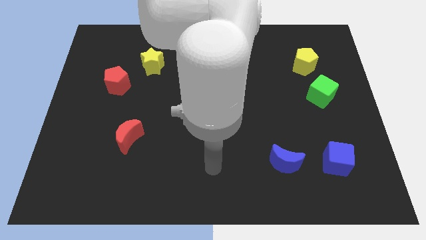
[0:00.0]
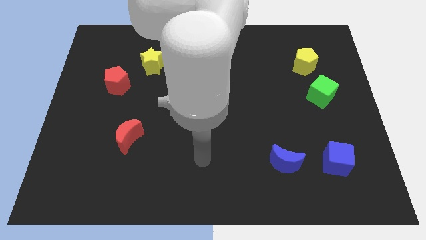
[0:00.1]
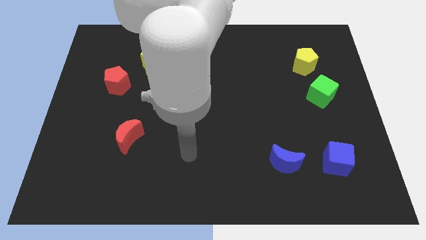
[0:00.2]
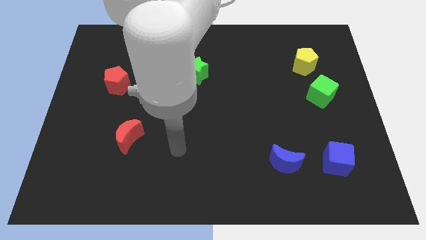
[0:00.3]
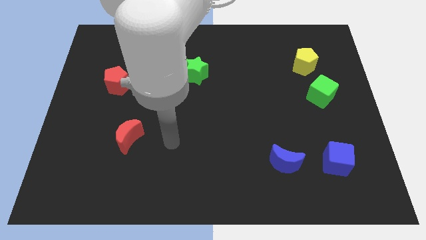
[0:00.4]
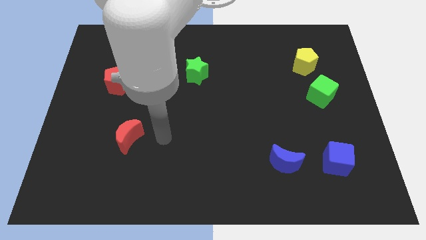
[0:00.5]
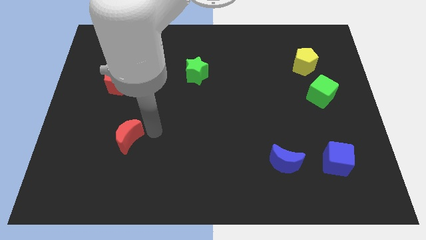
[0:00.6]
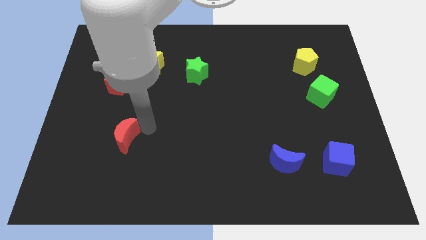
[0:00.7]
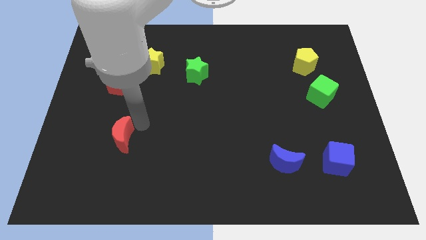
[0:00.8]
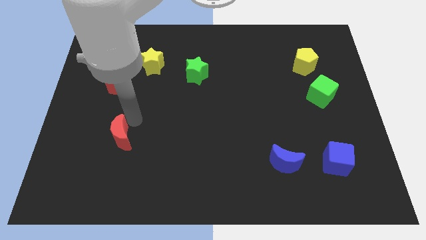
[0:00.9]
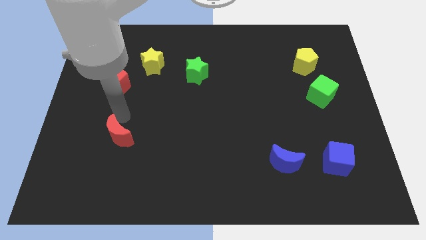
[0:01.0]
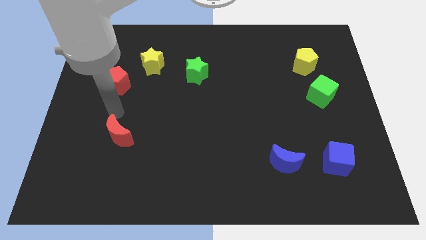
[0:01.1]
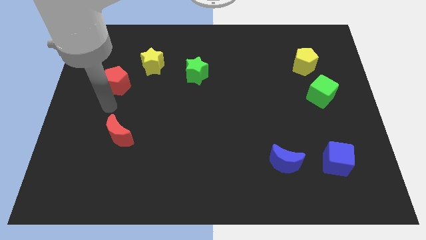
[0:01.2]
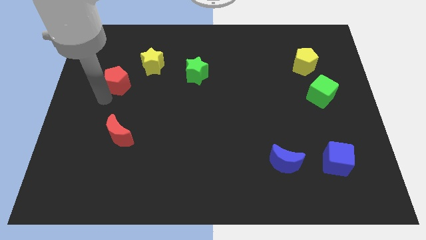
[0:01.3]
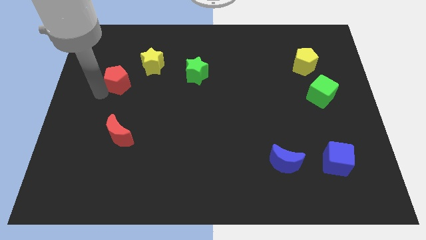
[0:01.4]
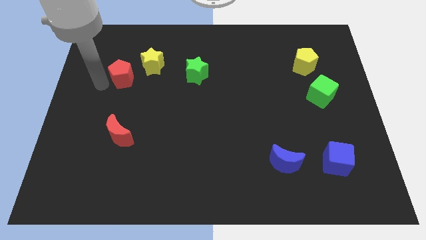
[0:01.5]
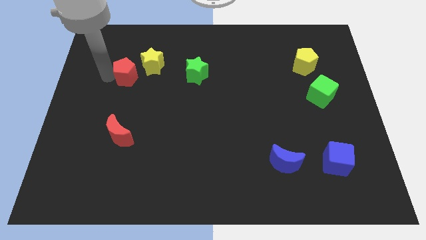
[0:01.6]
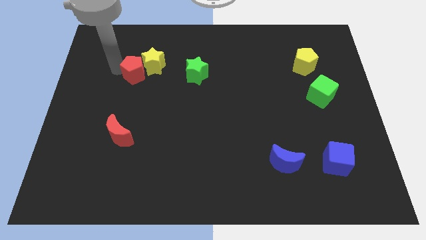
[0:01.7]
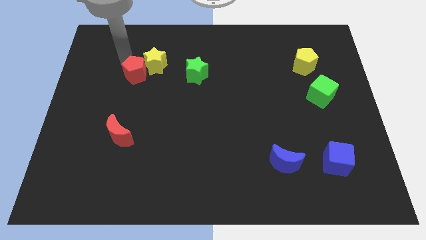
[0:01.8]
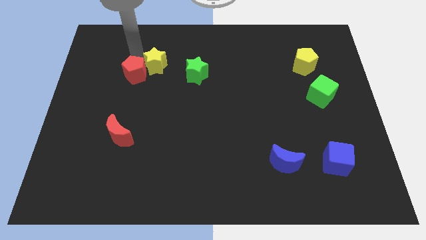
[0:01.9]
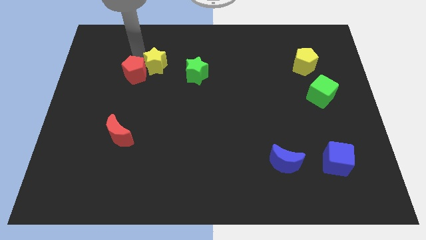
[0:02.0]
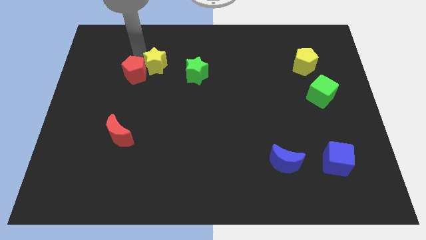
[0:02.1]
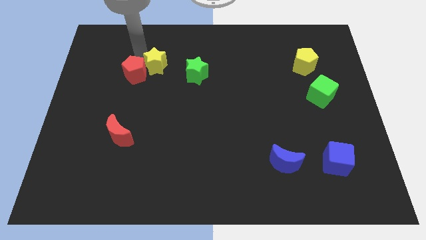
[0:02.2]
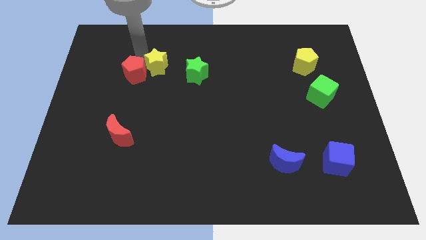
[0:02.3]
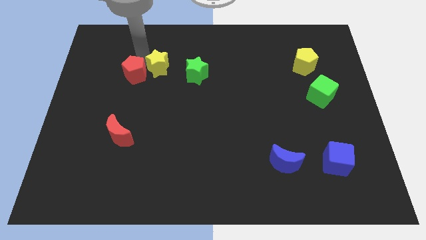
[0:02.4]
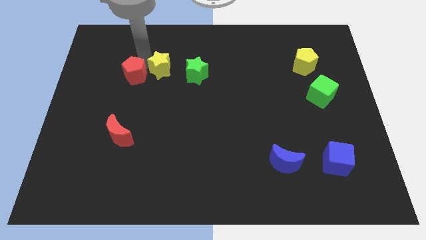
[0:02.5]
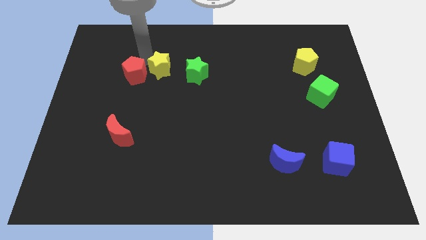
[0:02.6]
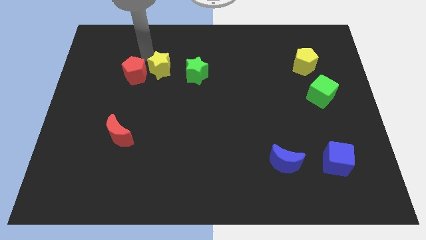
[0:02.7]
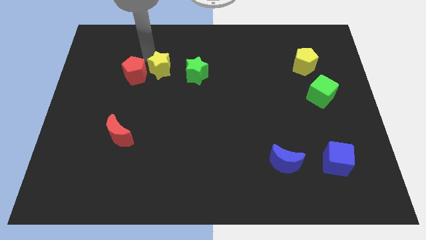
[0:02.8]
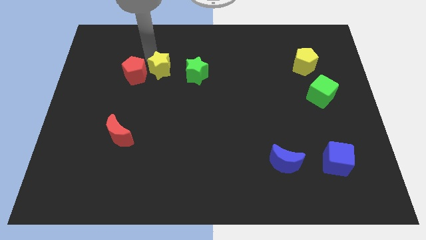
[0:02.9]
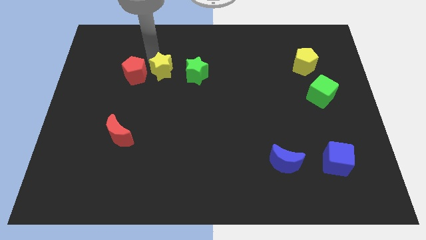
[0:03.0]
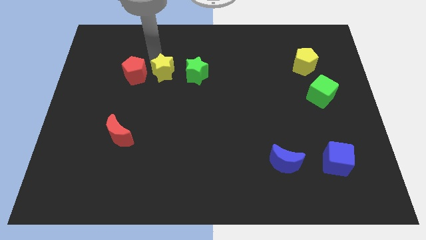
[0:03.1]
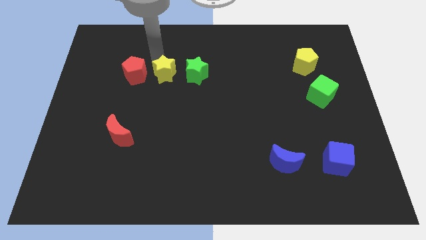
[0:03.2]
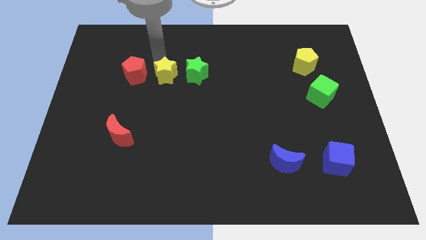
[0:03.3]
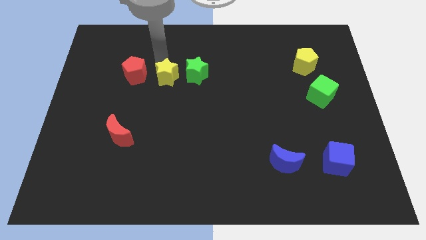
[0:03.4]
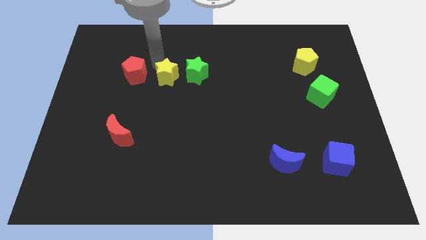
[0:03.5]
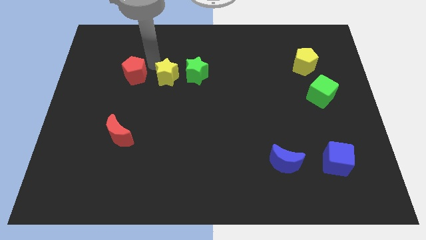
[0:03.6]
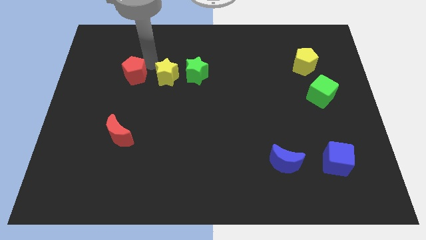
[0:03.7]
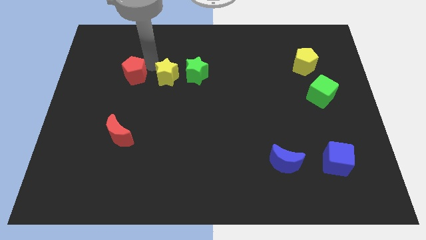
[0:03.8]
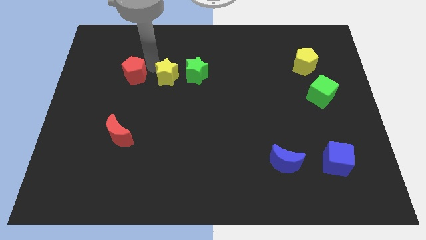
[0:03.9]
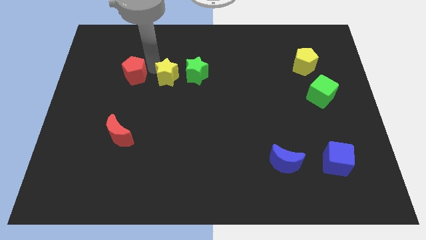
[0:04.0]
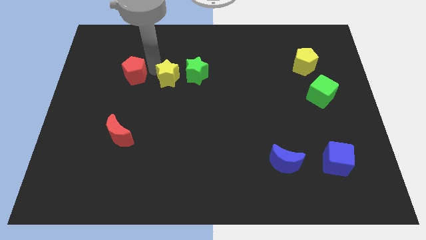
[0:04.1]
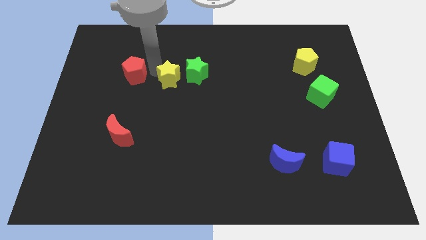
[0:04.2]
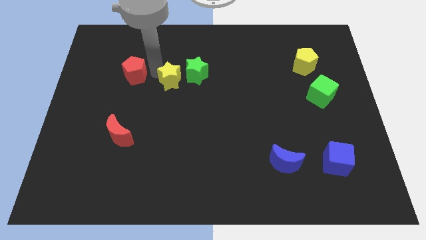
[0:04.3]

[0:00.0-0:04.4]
slightly move the yellow star down and right diagonally

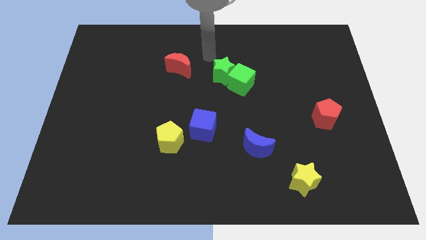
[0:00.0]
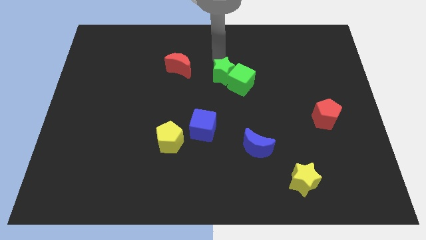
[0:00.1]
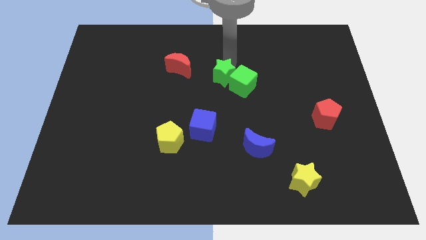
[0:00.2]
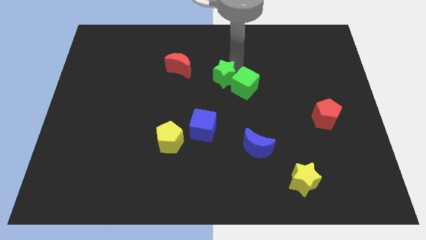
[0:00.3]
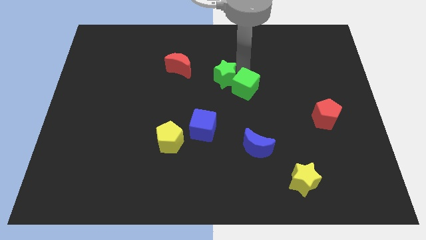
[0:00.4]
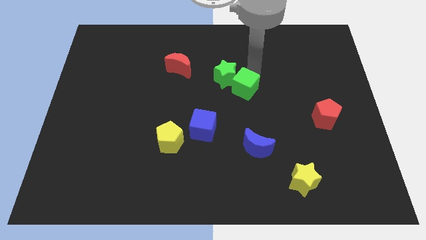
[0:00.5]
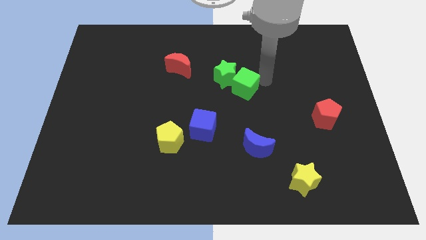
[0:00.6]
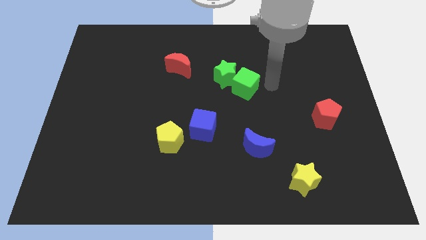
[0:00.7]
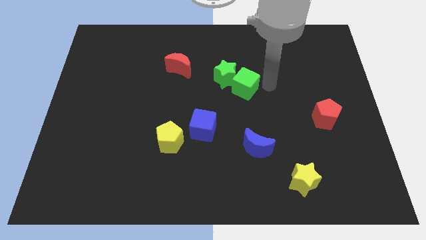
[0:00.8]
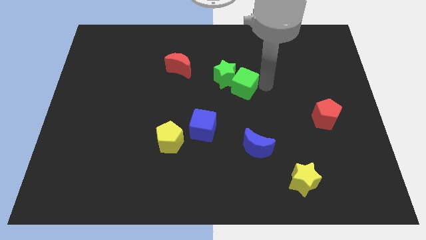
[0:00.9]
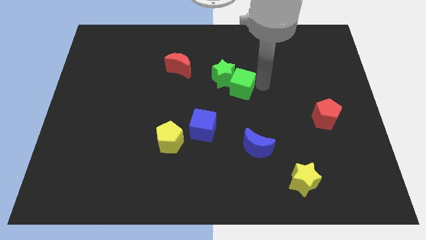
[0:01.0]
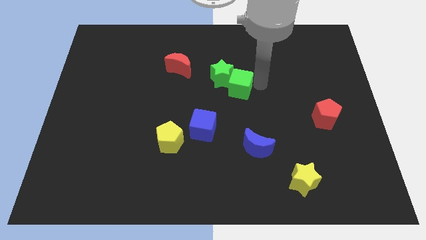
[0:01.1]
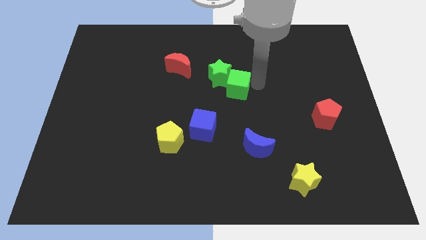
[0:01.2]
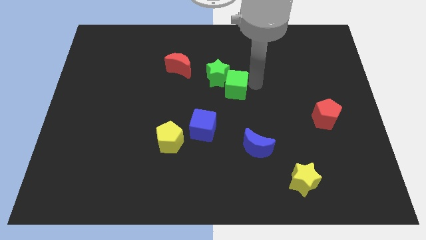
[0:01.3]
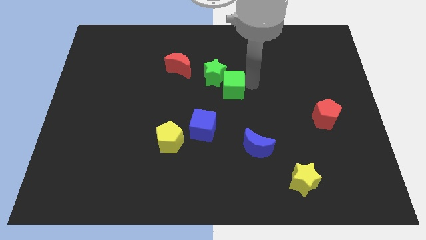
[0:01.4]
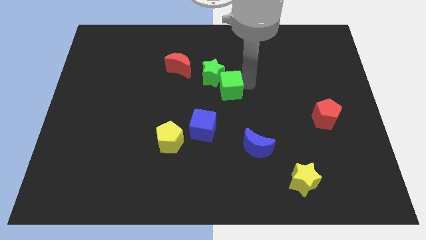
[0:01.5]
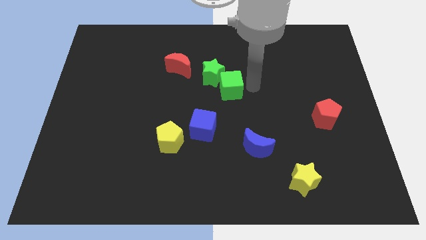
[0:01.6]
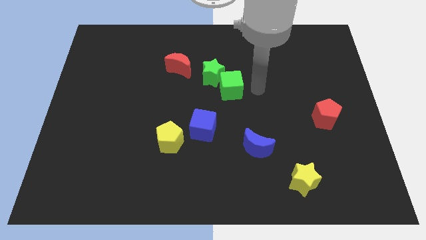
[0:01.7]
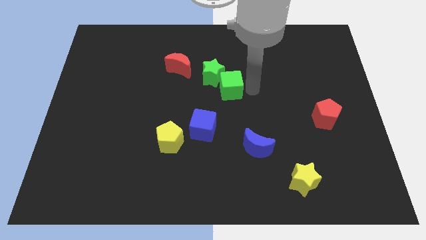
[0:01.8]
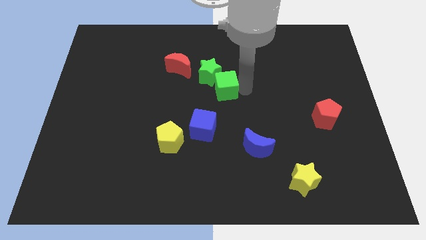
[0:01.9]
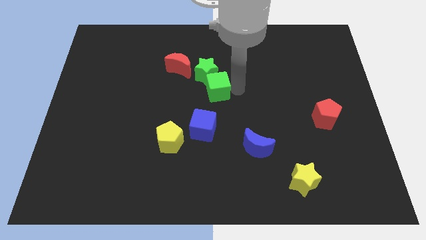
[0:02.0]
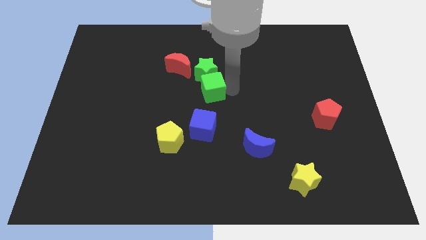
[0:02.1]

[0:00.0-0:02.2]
slide the green cube to the left a little bit

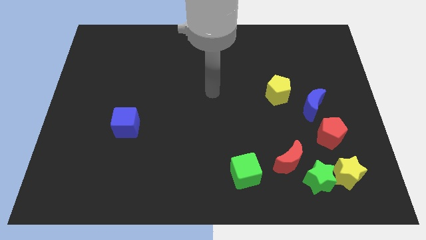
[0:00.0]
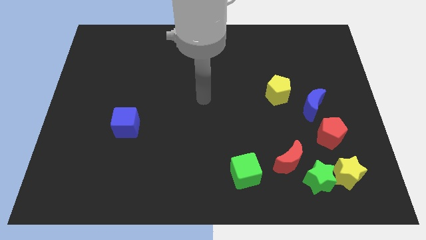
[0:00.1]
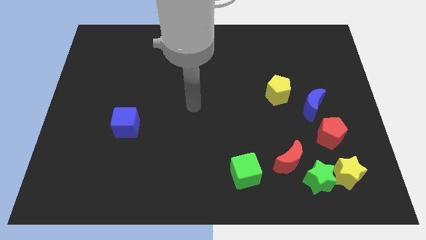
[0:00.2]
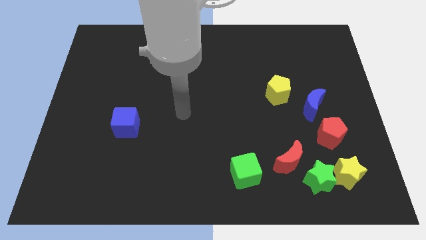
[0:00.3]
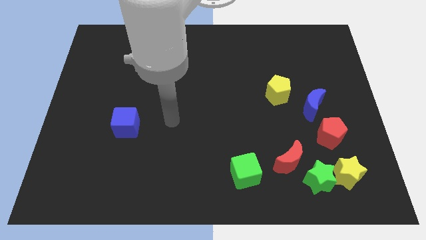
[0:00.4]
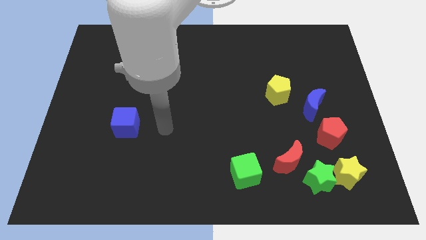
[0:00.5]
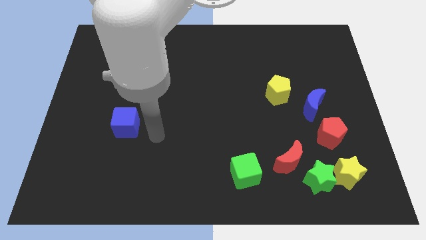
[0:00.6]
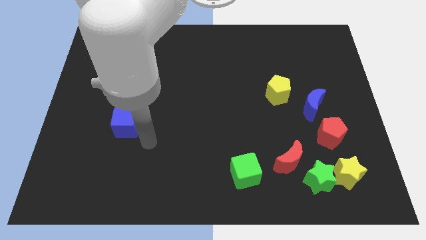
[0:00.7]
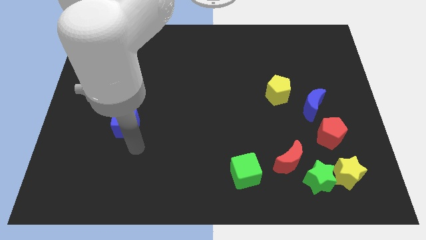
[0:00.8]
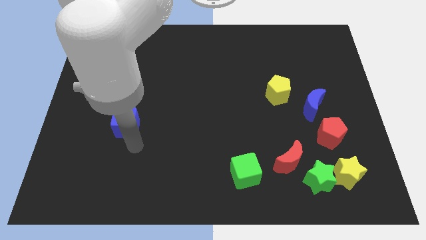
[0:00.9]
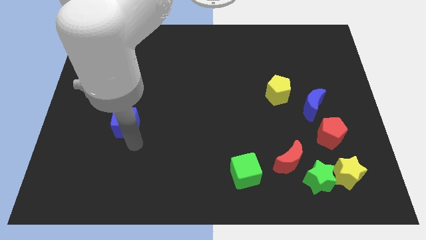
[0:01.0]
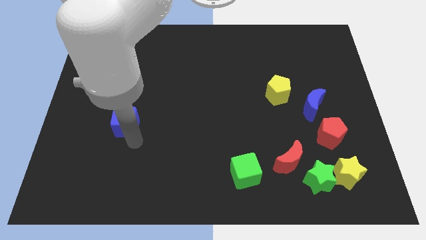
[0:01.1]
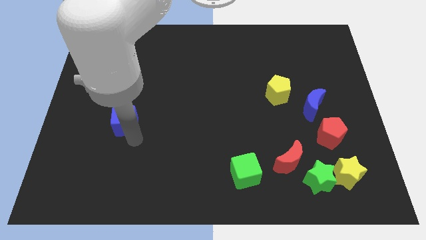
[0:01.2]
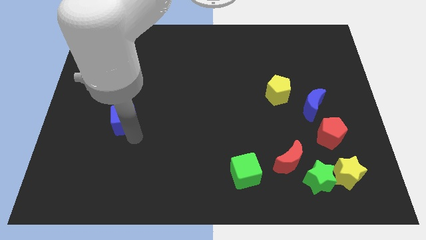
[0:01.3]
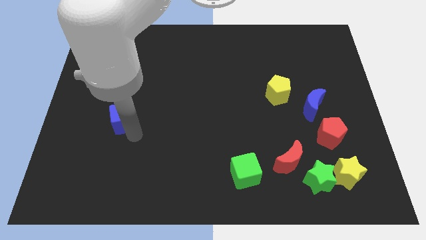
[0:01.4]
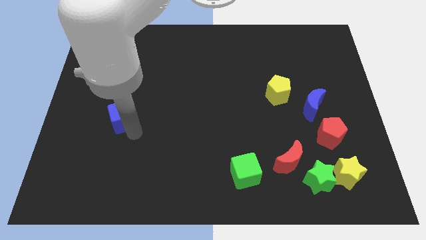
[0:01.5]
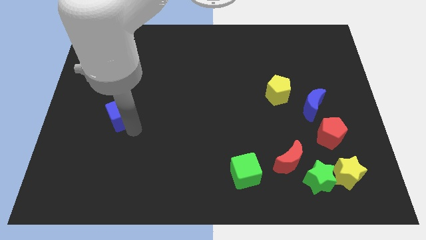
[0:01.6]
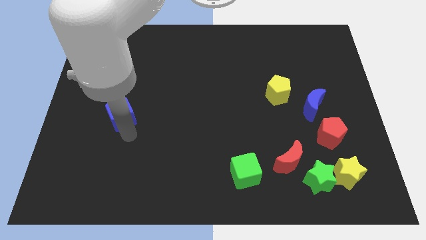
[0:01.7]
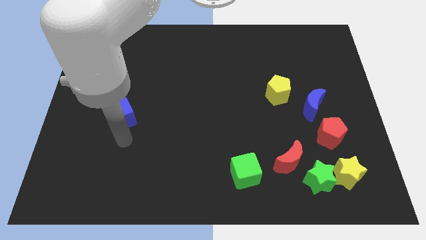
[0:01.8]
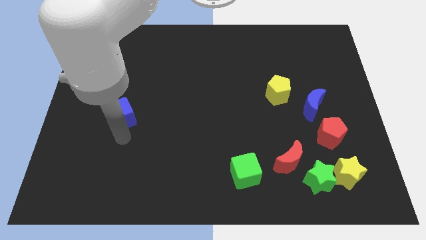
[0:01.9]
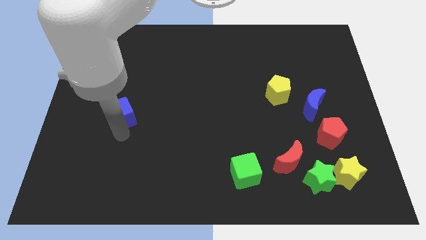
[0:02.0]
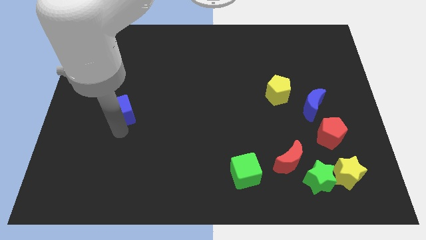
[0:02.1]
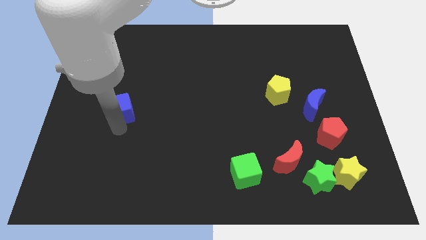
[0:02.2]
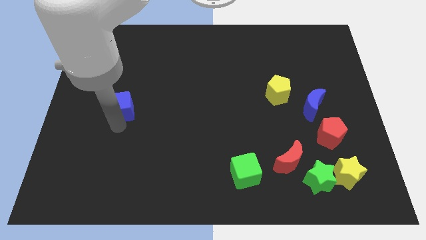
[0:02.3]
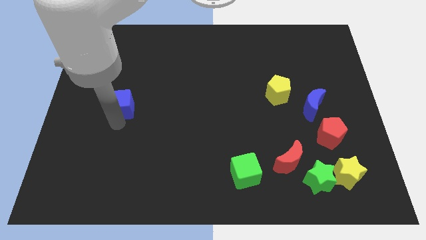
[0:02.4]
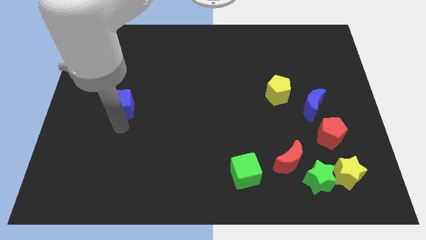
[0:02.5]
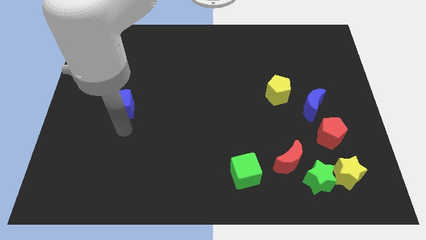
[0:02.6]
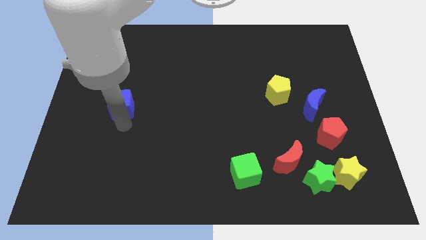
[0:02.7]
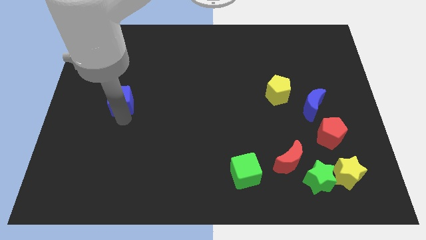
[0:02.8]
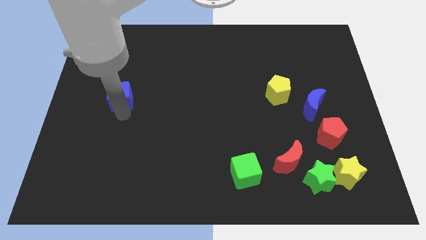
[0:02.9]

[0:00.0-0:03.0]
push the blue cube a little bit up
